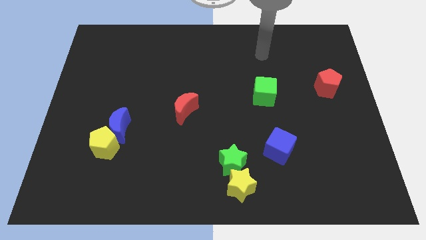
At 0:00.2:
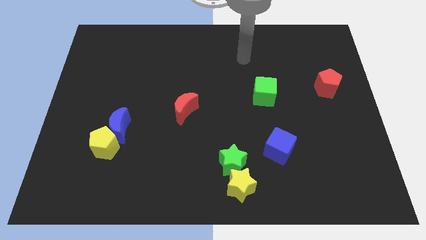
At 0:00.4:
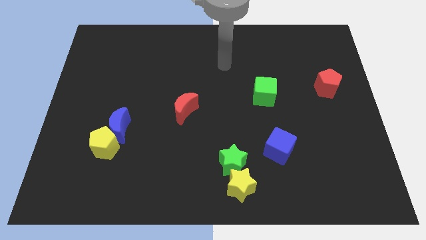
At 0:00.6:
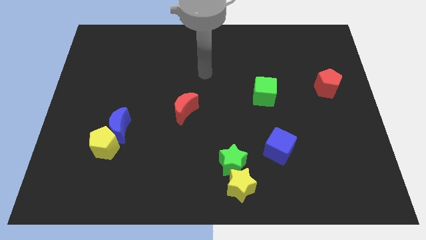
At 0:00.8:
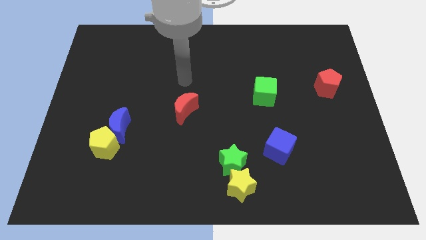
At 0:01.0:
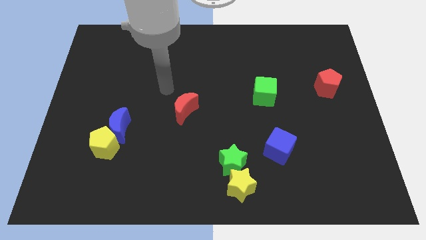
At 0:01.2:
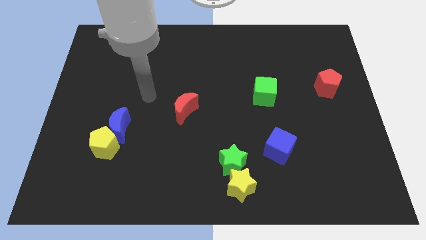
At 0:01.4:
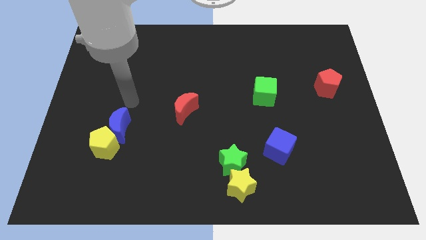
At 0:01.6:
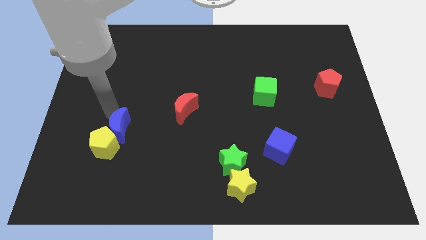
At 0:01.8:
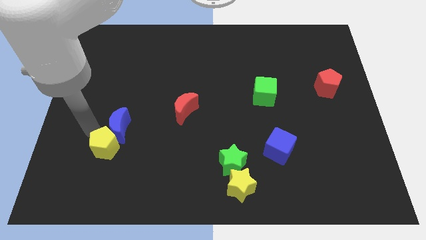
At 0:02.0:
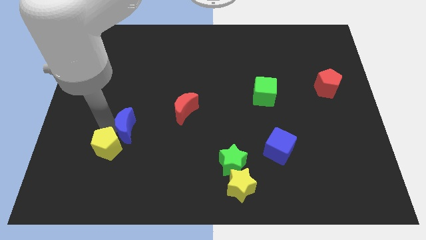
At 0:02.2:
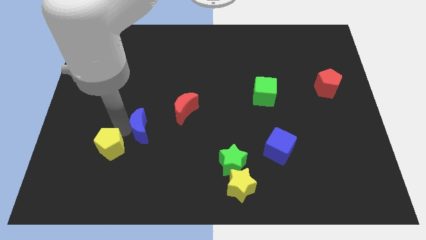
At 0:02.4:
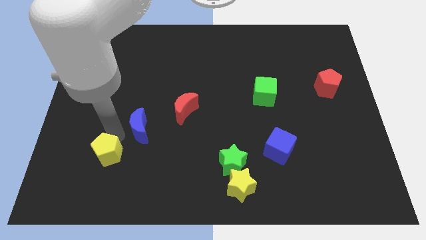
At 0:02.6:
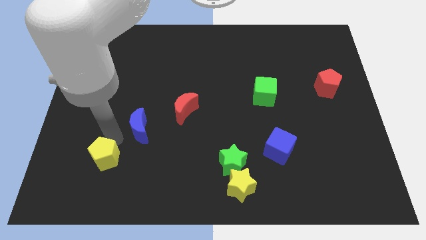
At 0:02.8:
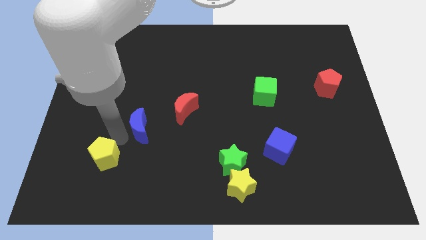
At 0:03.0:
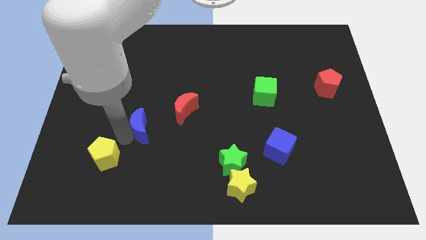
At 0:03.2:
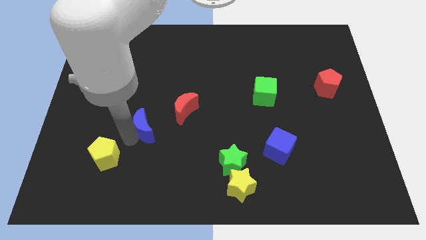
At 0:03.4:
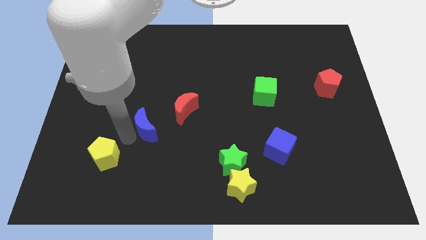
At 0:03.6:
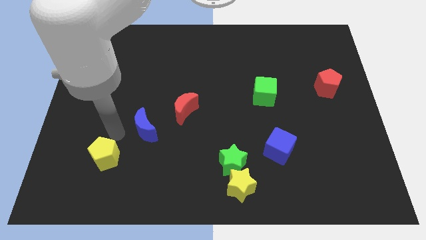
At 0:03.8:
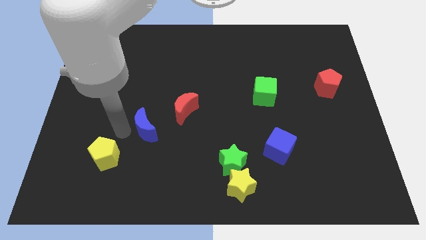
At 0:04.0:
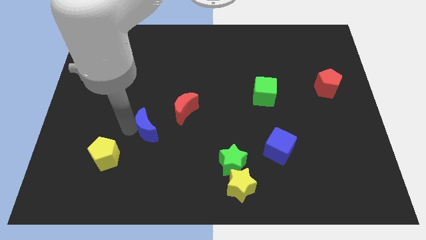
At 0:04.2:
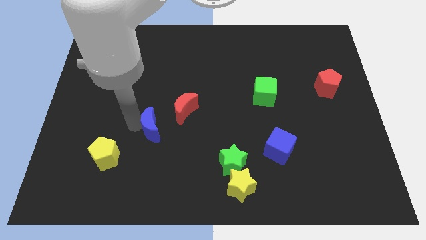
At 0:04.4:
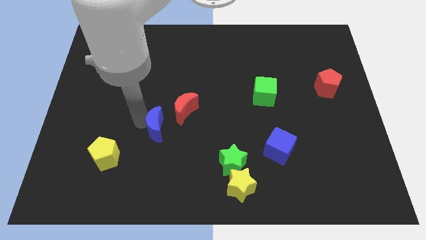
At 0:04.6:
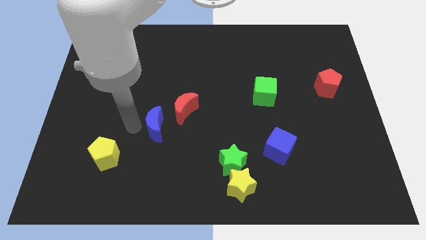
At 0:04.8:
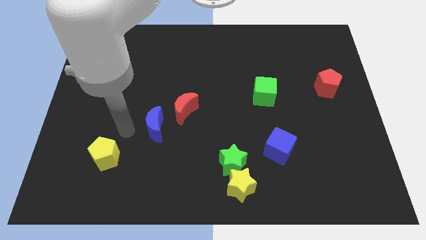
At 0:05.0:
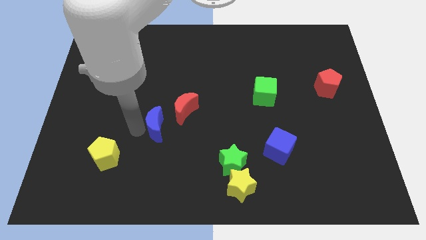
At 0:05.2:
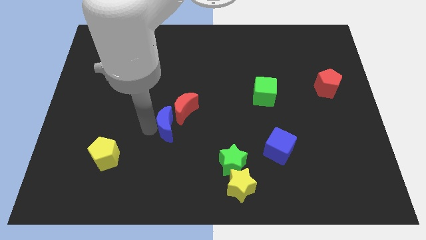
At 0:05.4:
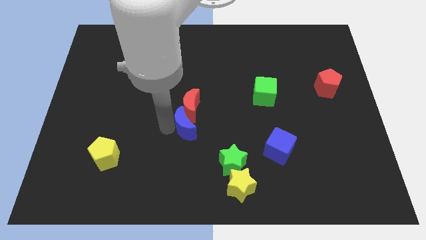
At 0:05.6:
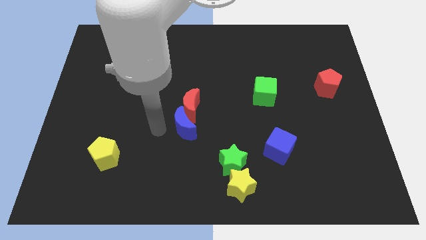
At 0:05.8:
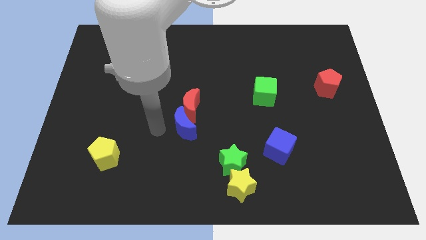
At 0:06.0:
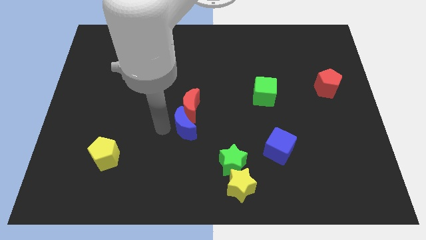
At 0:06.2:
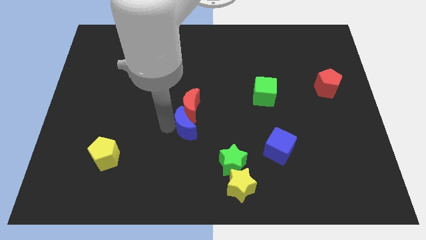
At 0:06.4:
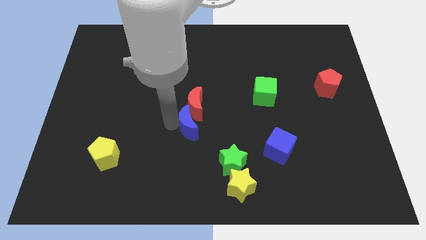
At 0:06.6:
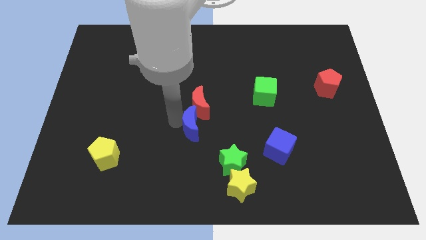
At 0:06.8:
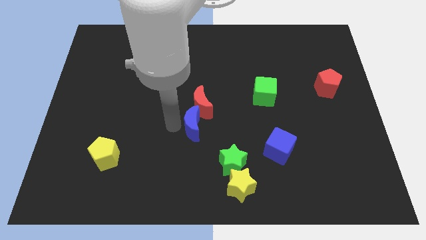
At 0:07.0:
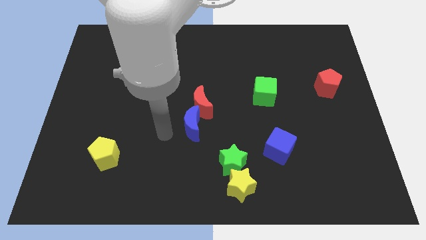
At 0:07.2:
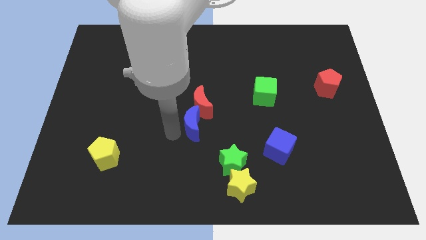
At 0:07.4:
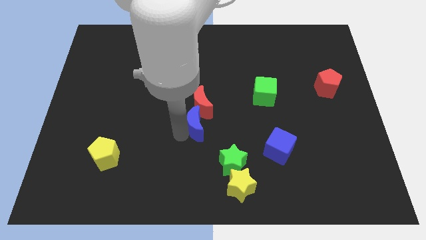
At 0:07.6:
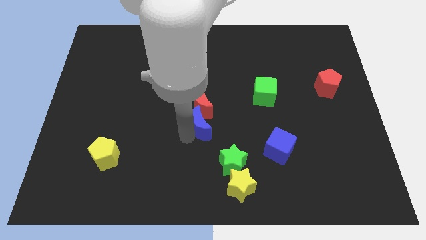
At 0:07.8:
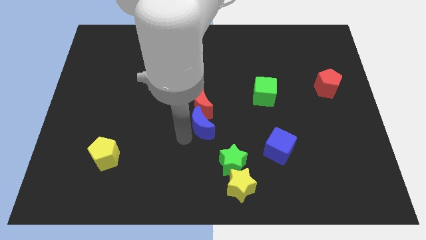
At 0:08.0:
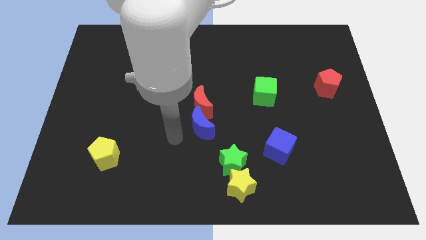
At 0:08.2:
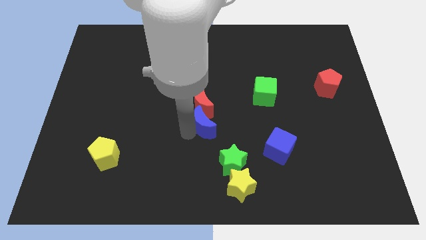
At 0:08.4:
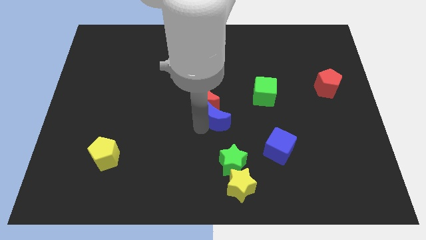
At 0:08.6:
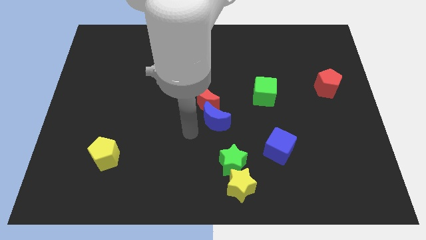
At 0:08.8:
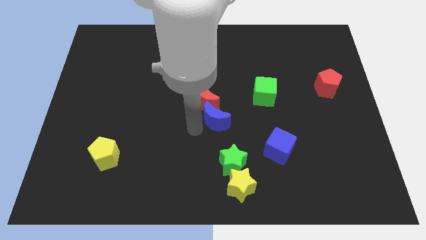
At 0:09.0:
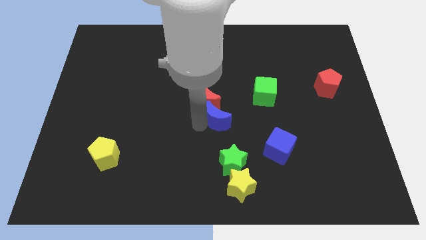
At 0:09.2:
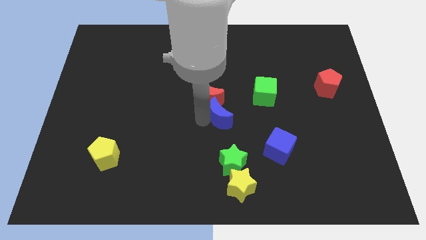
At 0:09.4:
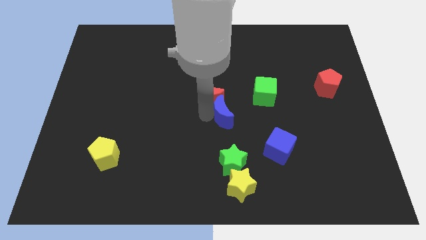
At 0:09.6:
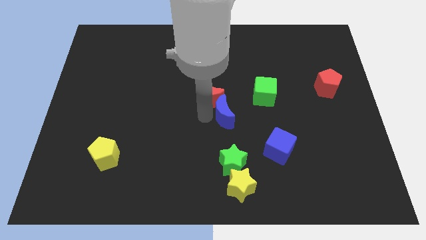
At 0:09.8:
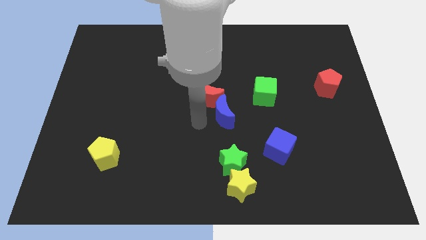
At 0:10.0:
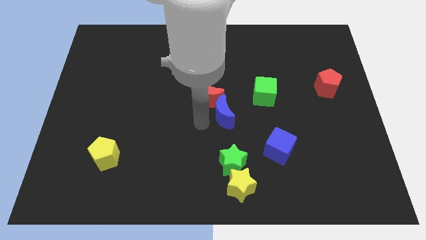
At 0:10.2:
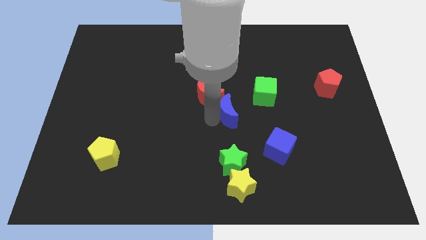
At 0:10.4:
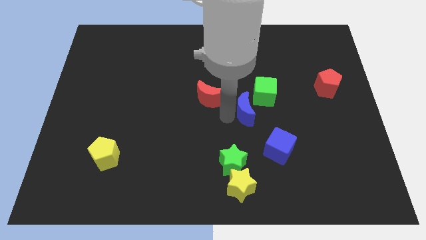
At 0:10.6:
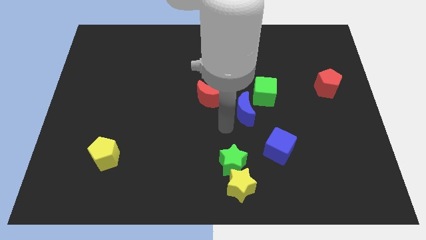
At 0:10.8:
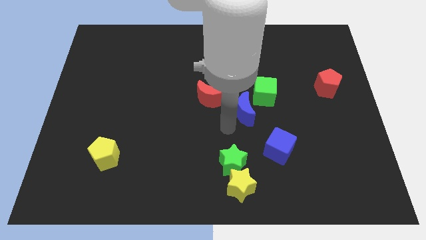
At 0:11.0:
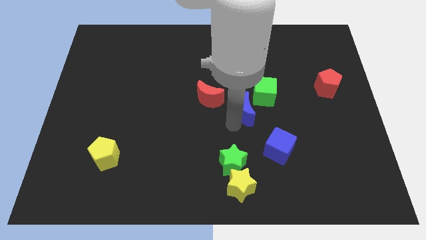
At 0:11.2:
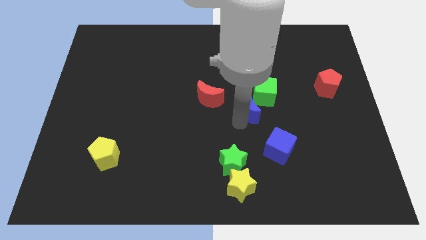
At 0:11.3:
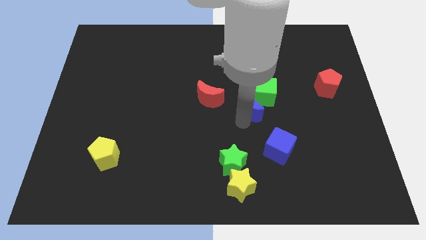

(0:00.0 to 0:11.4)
push the blue moon next to the green cube
